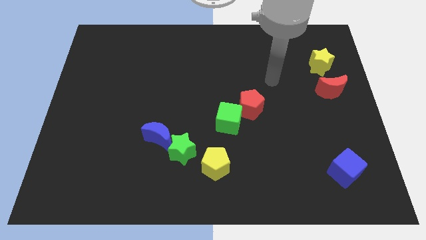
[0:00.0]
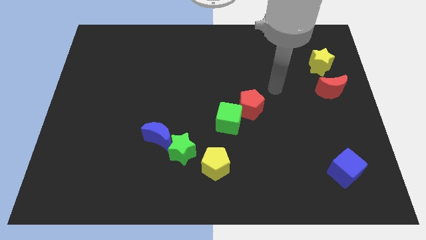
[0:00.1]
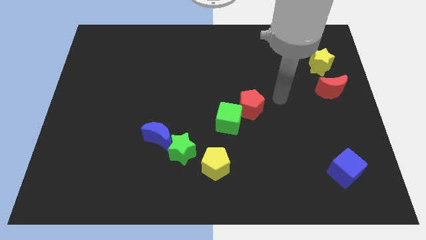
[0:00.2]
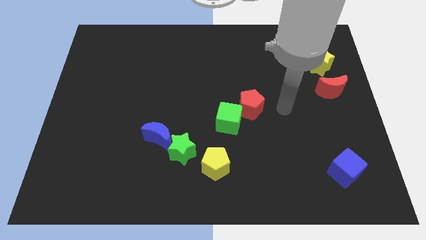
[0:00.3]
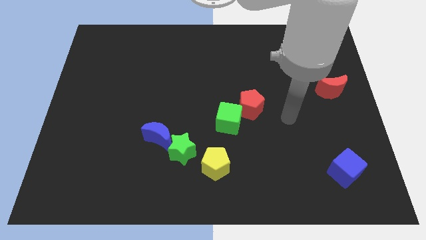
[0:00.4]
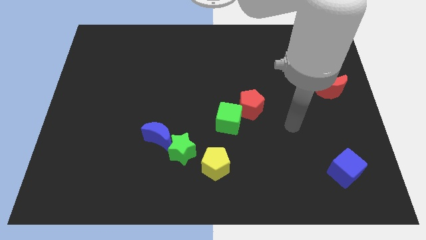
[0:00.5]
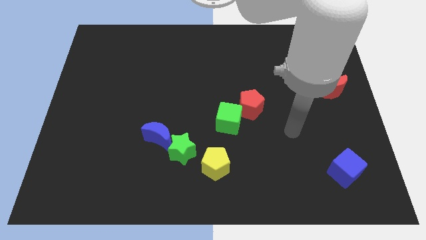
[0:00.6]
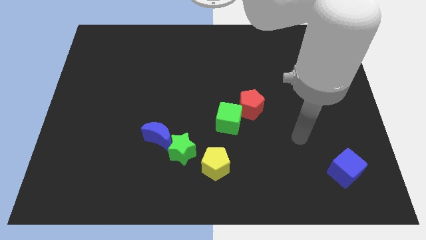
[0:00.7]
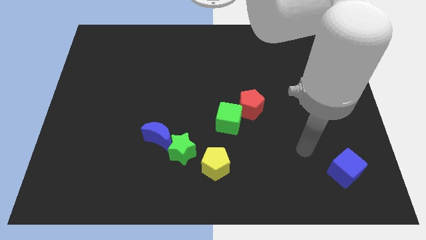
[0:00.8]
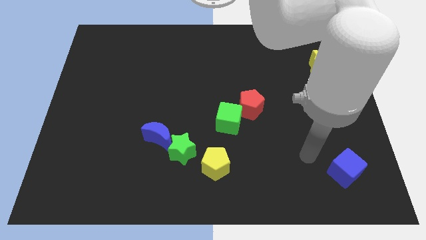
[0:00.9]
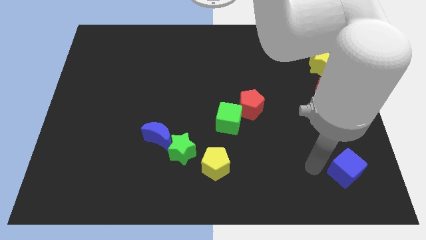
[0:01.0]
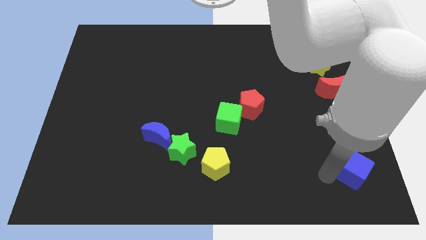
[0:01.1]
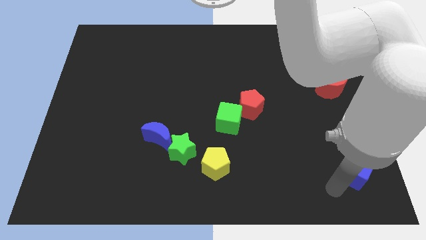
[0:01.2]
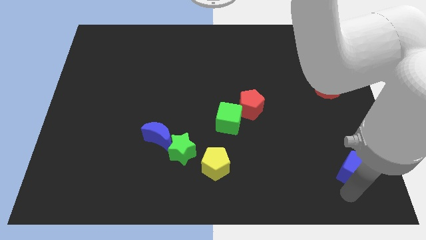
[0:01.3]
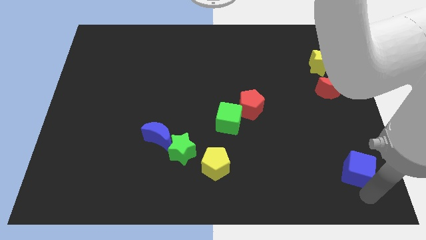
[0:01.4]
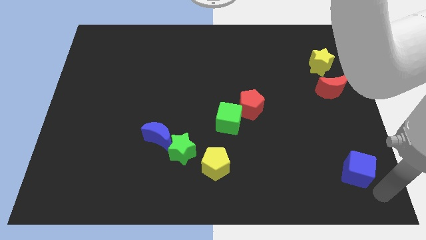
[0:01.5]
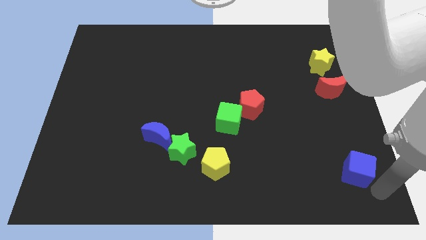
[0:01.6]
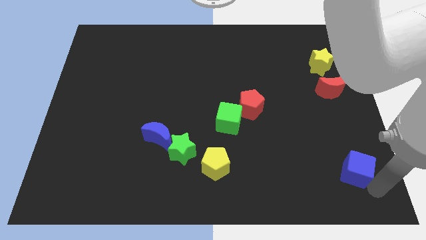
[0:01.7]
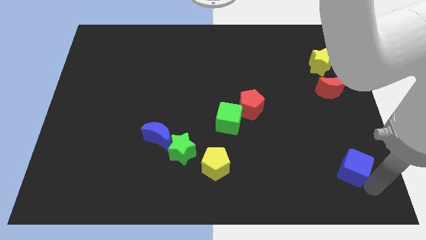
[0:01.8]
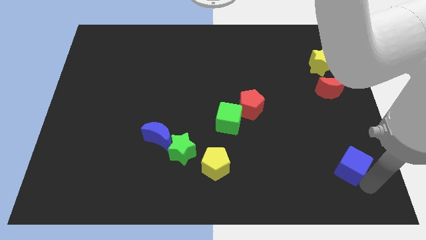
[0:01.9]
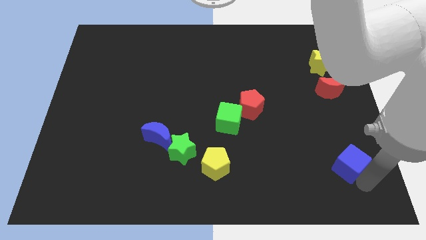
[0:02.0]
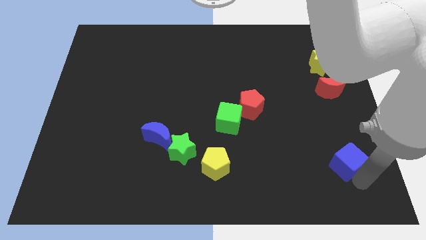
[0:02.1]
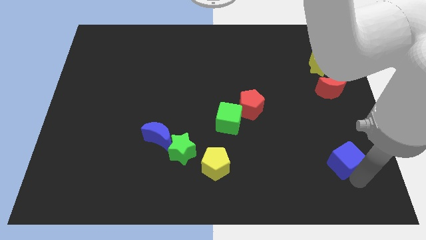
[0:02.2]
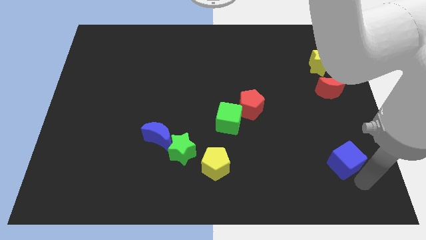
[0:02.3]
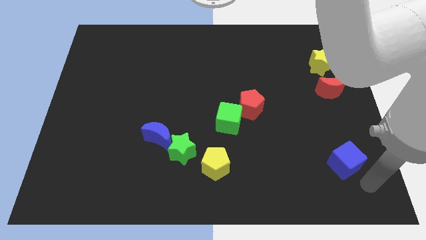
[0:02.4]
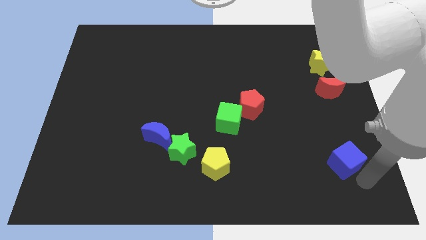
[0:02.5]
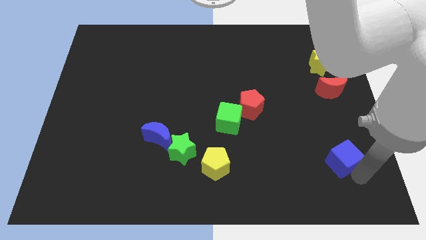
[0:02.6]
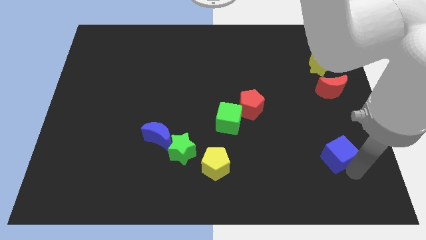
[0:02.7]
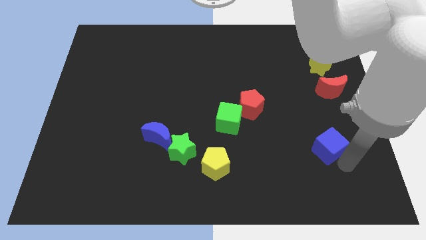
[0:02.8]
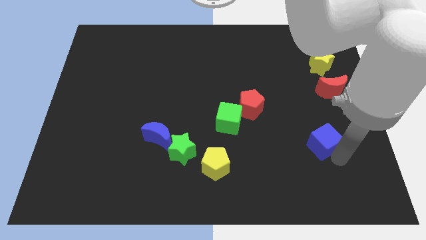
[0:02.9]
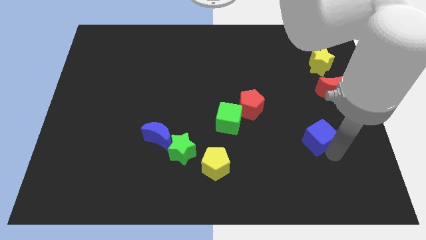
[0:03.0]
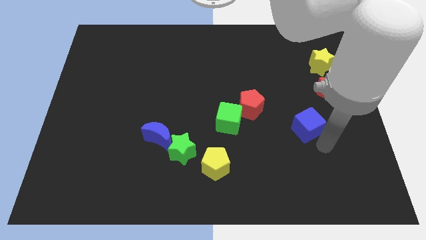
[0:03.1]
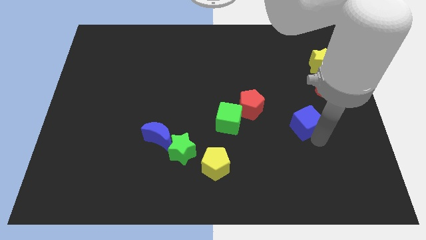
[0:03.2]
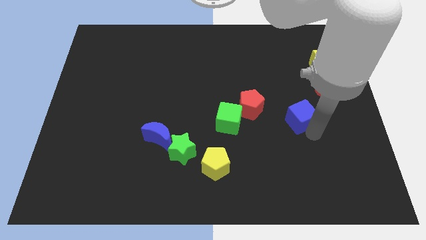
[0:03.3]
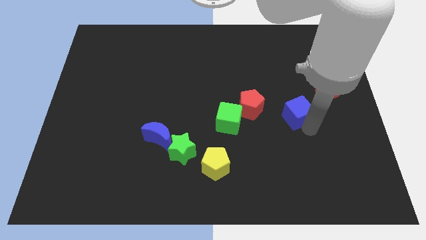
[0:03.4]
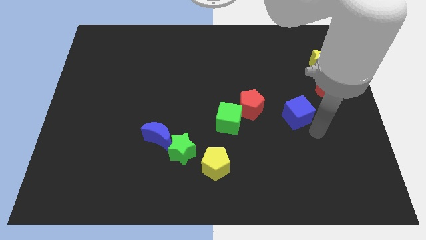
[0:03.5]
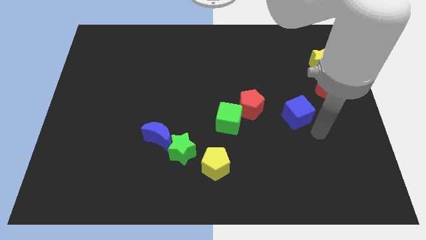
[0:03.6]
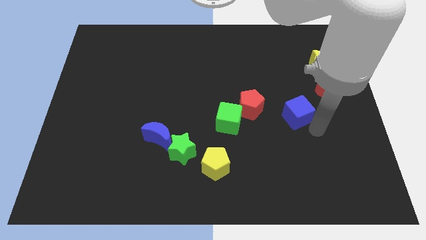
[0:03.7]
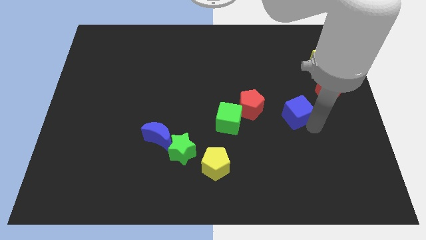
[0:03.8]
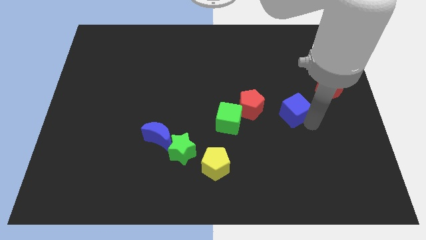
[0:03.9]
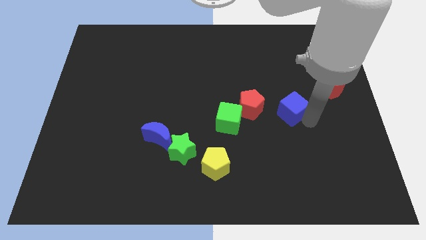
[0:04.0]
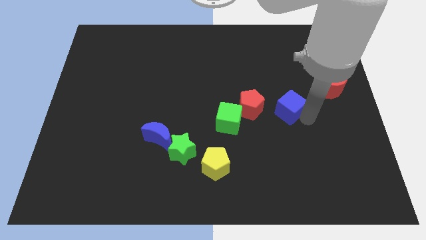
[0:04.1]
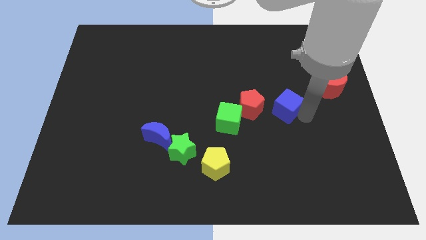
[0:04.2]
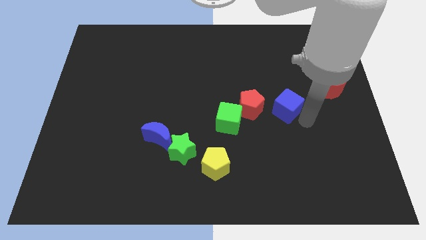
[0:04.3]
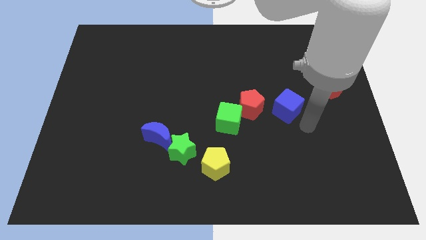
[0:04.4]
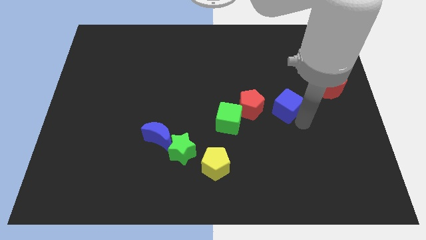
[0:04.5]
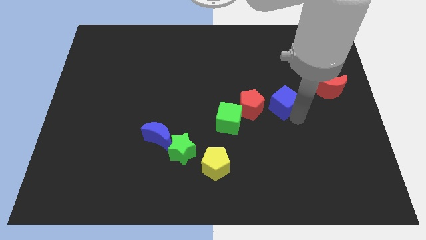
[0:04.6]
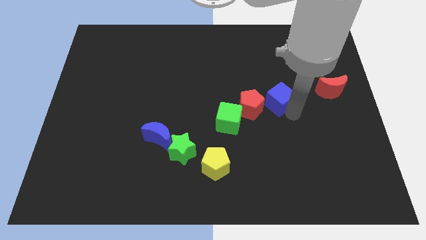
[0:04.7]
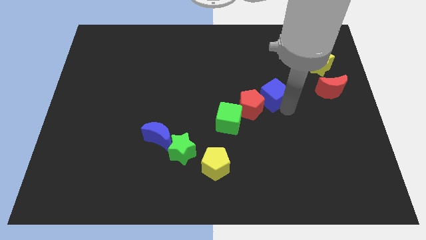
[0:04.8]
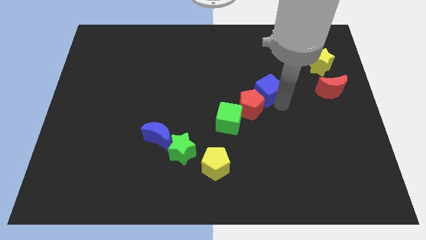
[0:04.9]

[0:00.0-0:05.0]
slide the blue cube to the top side of the red pentagon

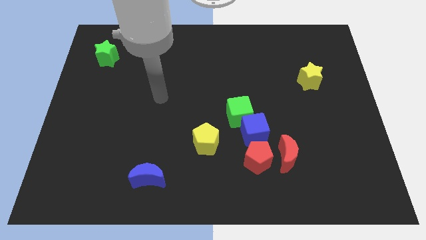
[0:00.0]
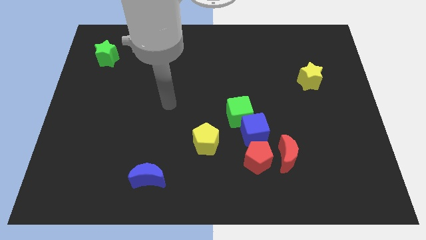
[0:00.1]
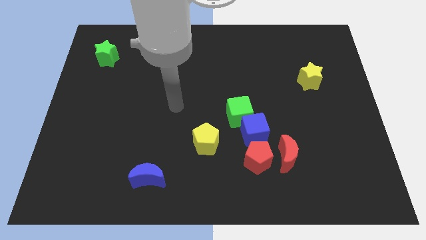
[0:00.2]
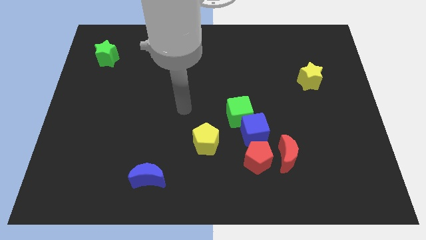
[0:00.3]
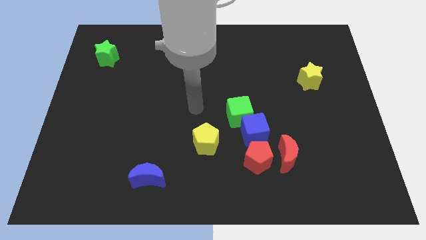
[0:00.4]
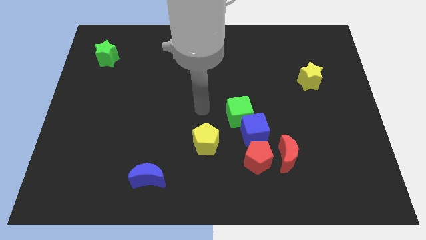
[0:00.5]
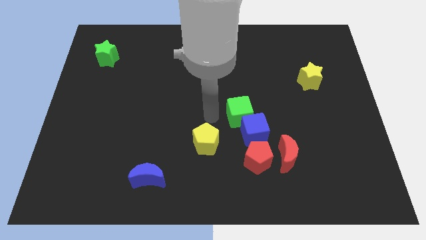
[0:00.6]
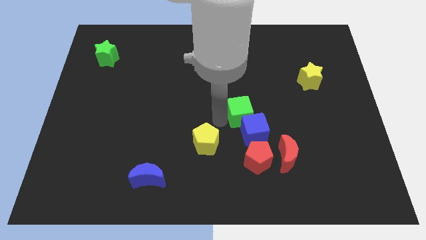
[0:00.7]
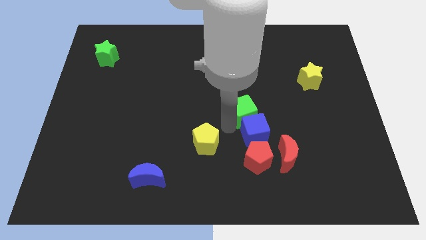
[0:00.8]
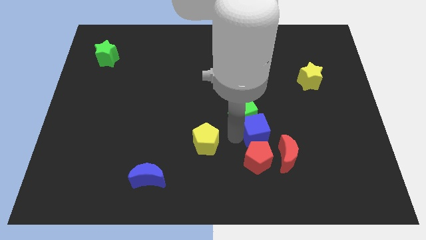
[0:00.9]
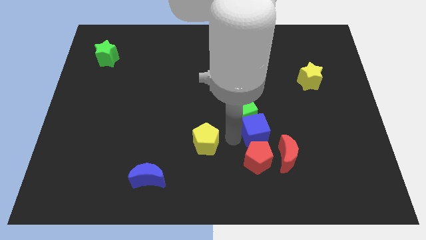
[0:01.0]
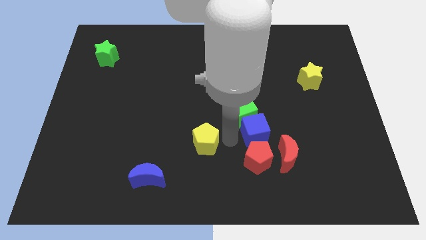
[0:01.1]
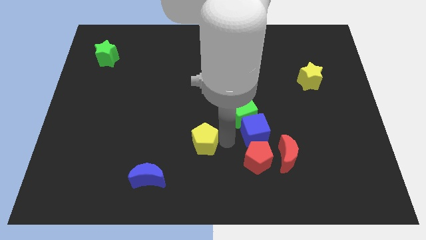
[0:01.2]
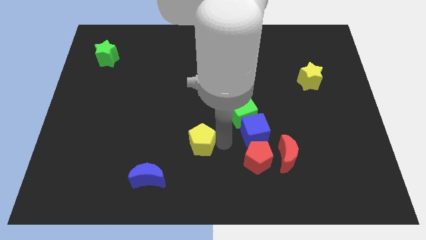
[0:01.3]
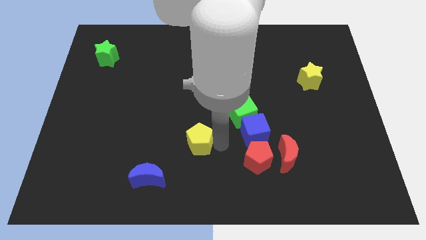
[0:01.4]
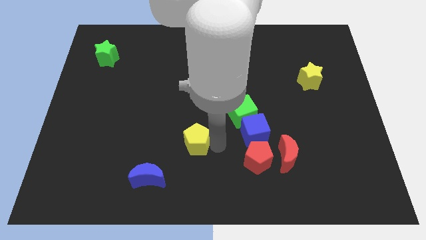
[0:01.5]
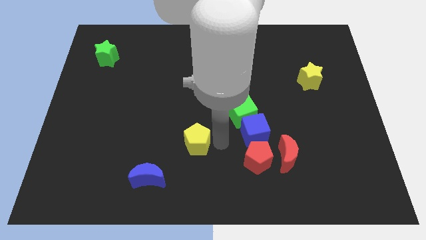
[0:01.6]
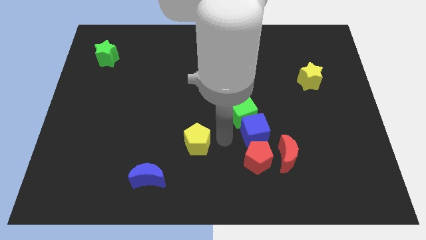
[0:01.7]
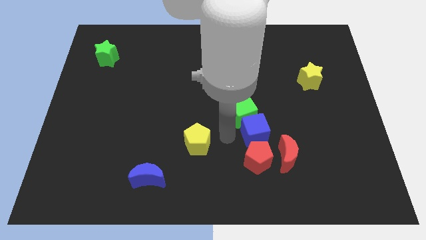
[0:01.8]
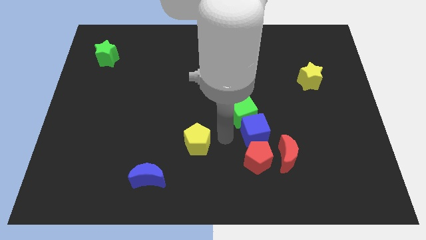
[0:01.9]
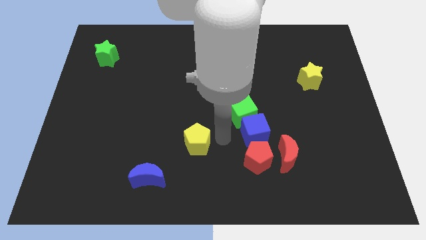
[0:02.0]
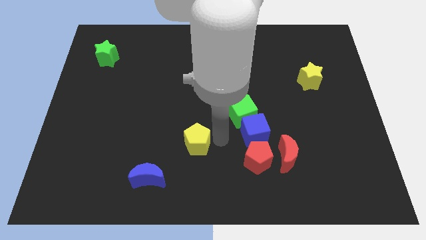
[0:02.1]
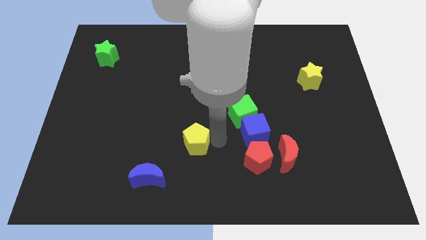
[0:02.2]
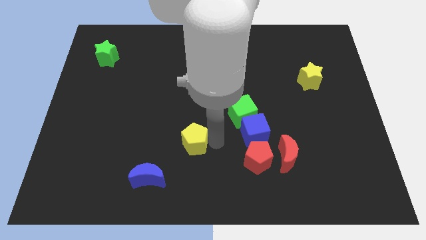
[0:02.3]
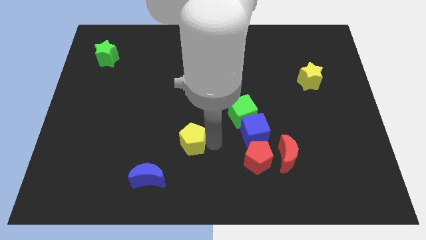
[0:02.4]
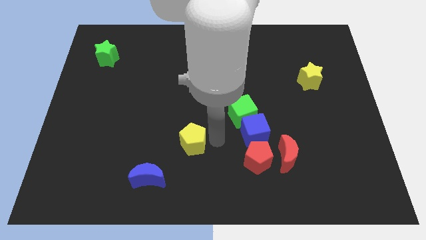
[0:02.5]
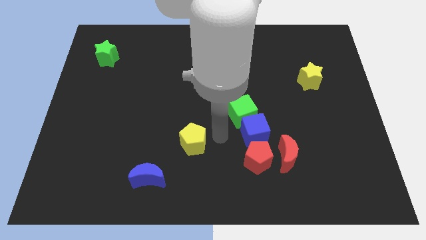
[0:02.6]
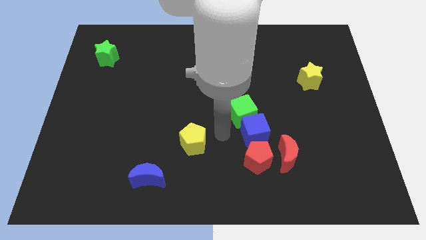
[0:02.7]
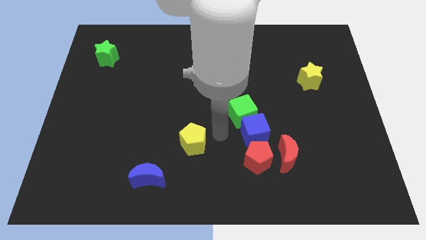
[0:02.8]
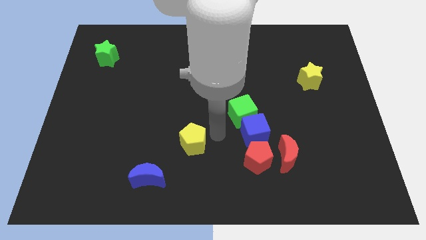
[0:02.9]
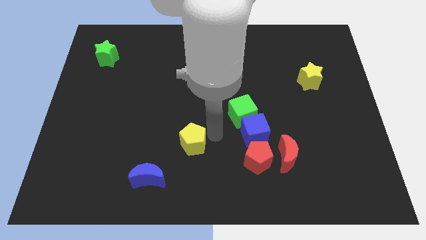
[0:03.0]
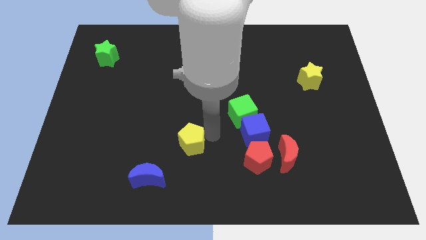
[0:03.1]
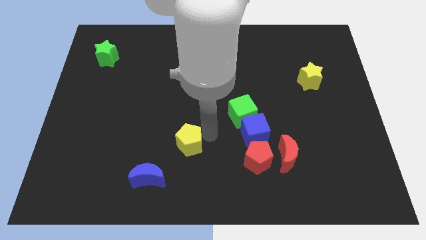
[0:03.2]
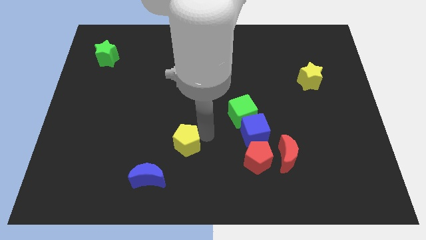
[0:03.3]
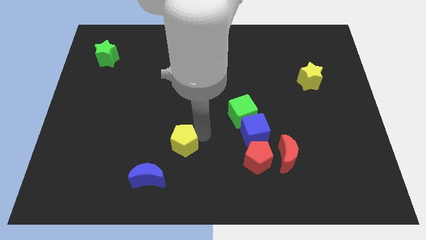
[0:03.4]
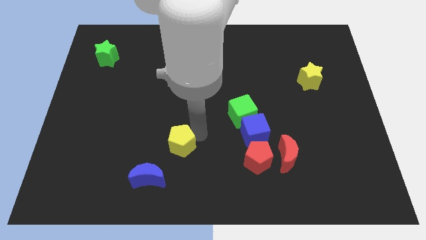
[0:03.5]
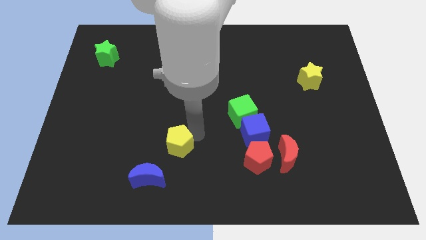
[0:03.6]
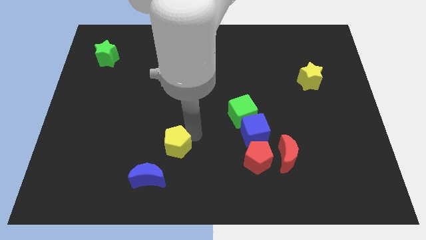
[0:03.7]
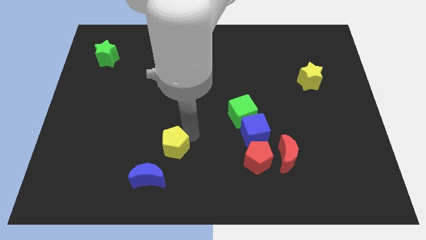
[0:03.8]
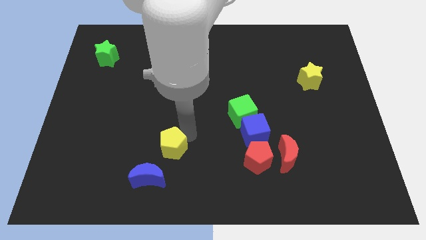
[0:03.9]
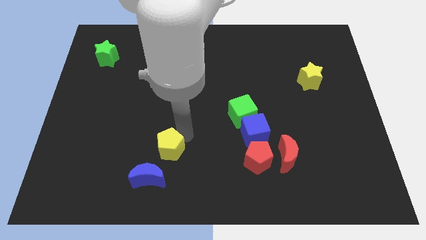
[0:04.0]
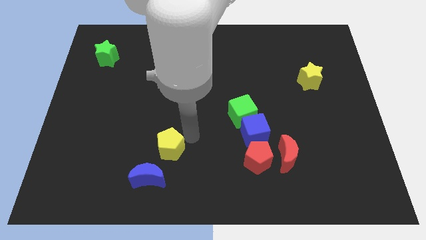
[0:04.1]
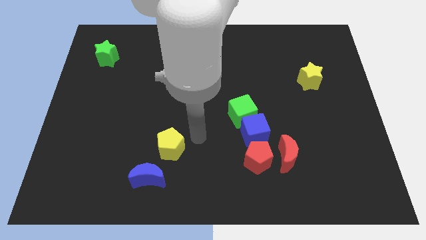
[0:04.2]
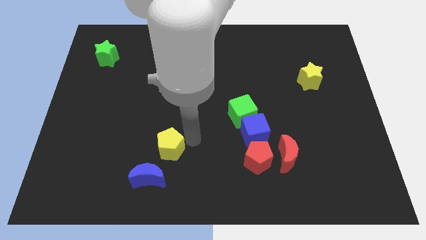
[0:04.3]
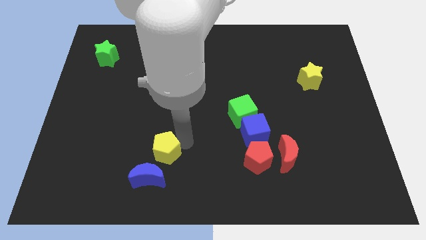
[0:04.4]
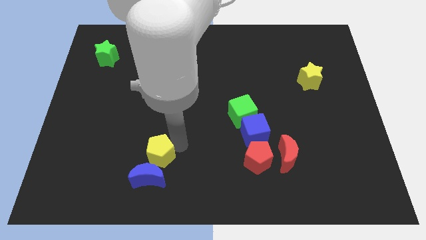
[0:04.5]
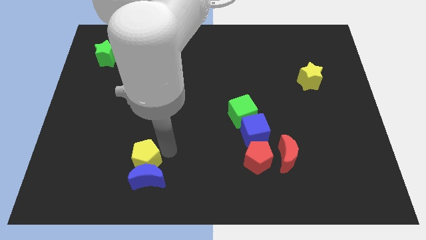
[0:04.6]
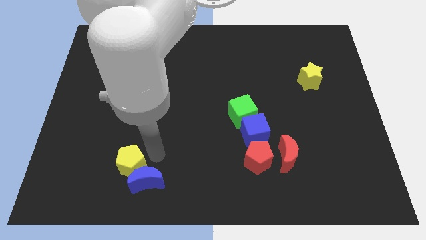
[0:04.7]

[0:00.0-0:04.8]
push the yellow pentagon to the left of the blue moon
